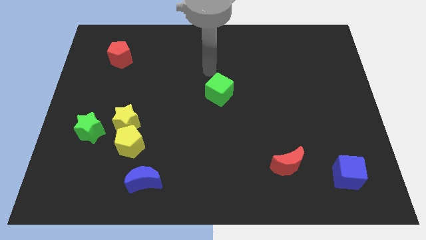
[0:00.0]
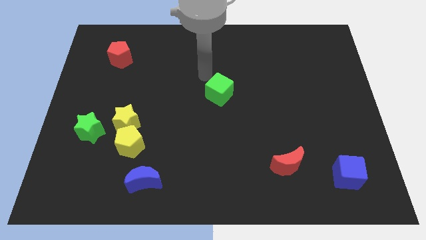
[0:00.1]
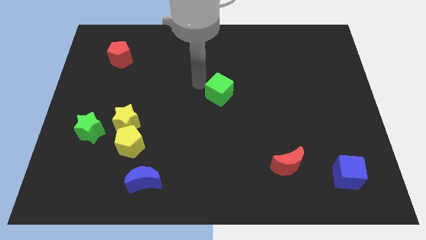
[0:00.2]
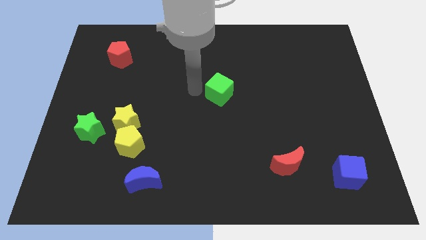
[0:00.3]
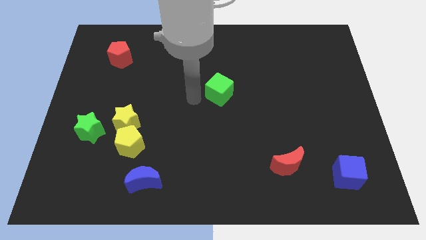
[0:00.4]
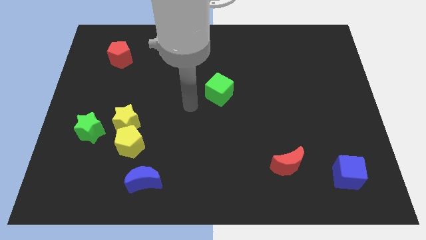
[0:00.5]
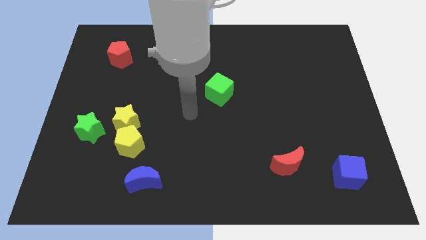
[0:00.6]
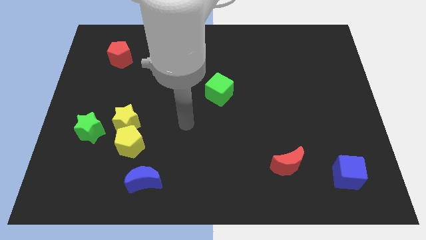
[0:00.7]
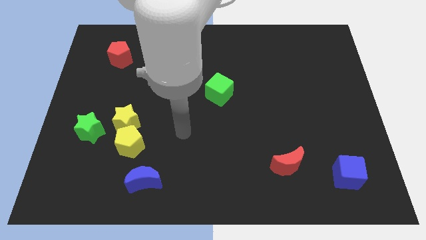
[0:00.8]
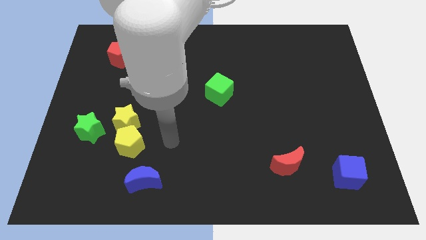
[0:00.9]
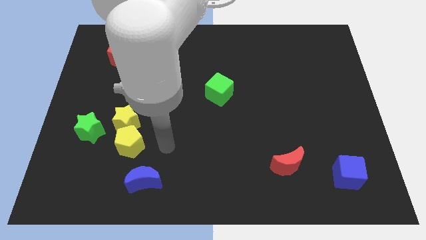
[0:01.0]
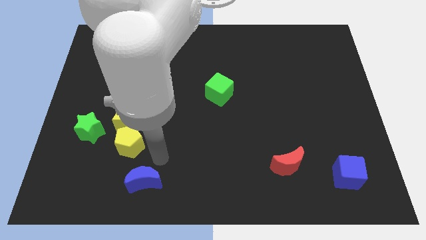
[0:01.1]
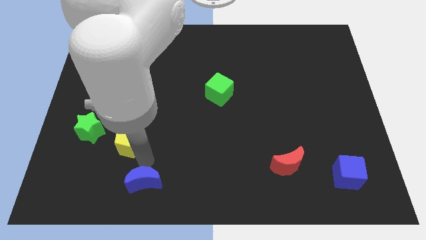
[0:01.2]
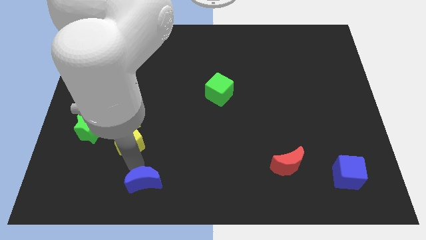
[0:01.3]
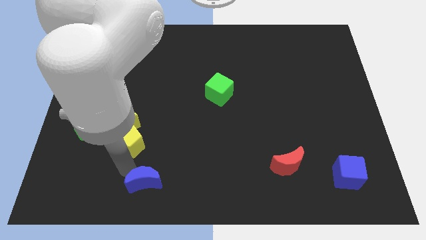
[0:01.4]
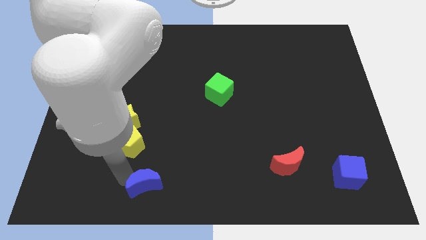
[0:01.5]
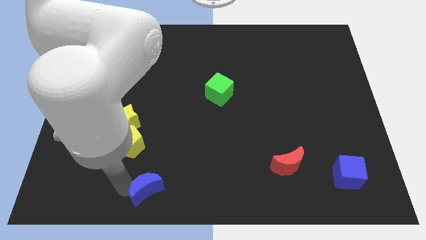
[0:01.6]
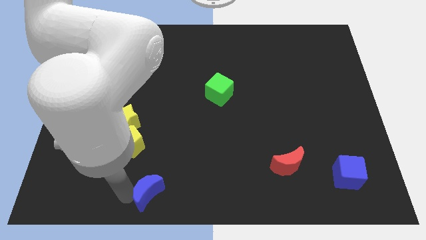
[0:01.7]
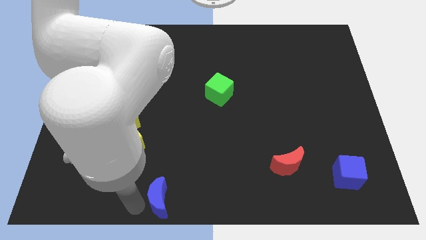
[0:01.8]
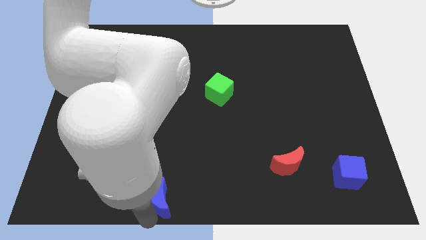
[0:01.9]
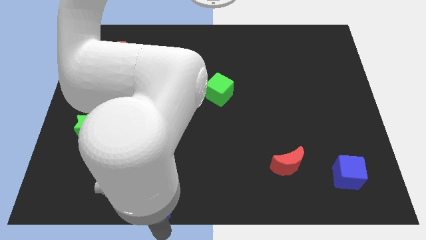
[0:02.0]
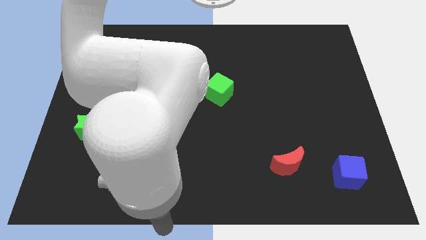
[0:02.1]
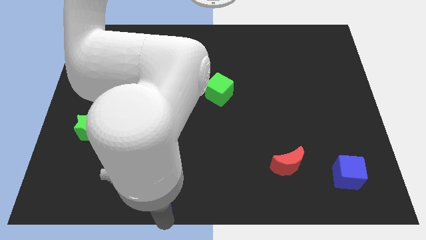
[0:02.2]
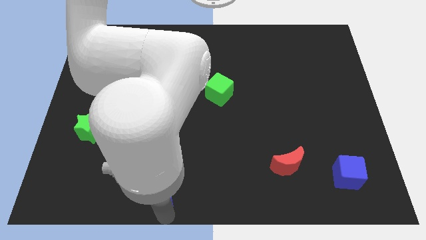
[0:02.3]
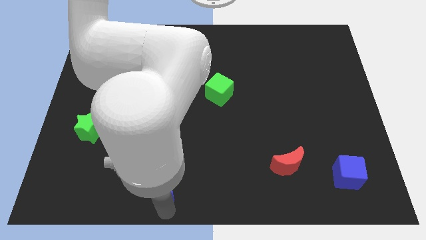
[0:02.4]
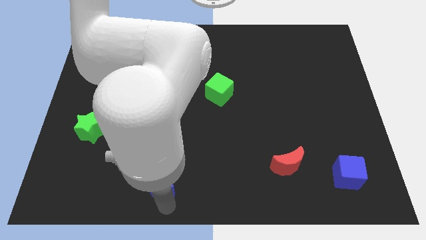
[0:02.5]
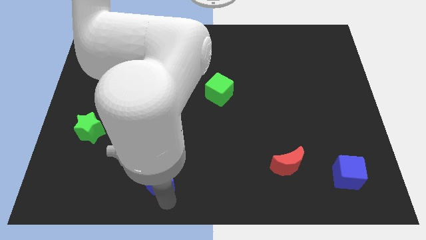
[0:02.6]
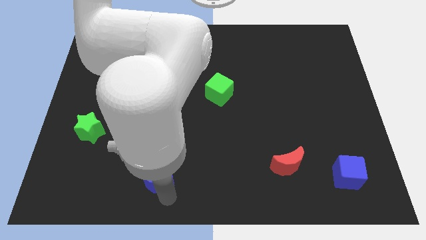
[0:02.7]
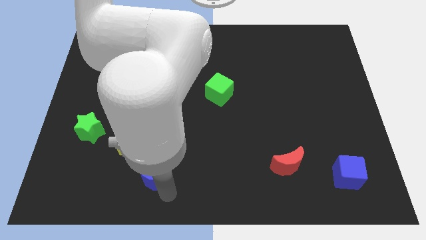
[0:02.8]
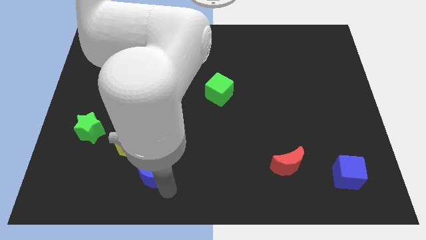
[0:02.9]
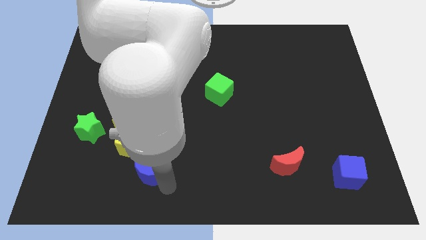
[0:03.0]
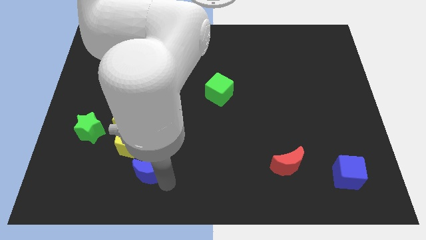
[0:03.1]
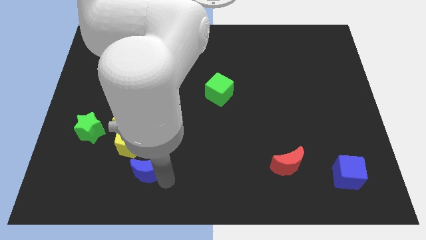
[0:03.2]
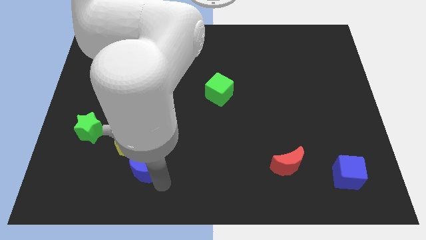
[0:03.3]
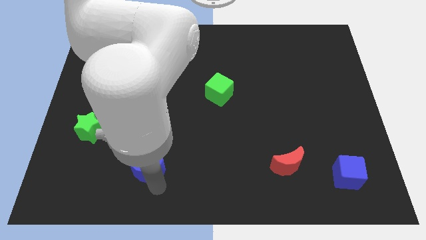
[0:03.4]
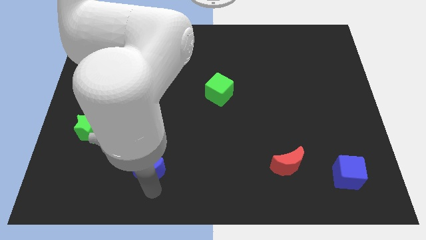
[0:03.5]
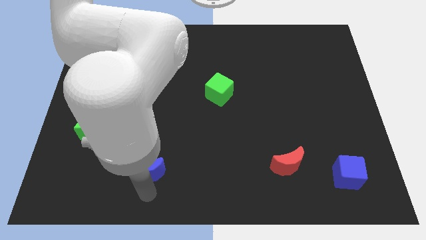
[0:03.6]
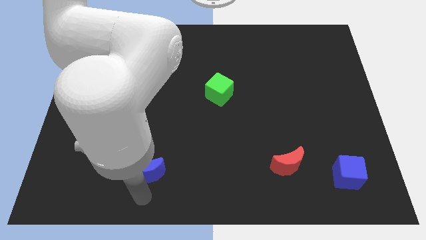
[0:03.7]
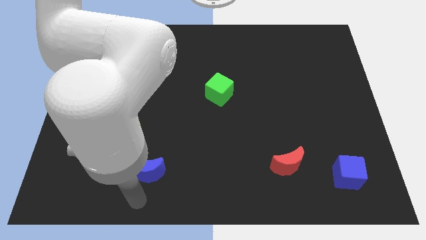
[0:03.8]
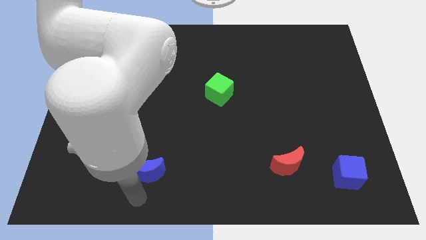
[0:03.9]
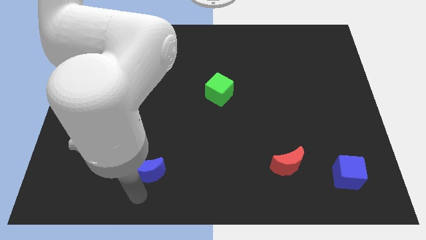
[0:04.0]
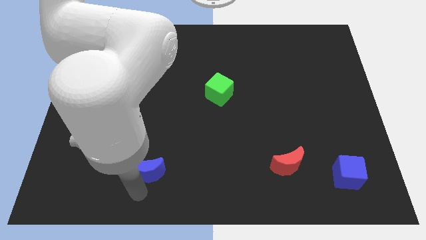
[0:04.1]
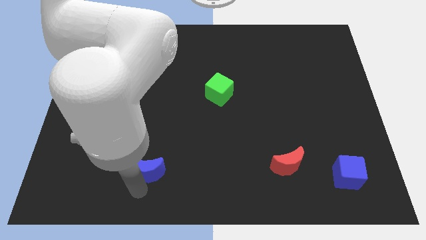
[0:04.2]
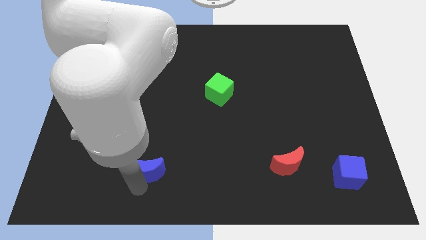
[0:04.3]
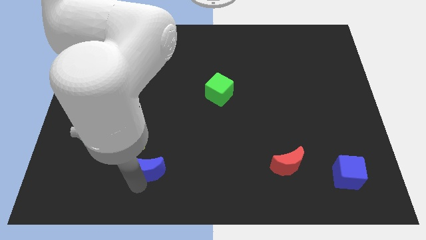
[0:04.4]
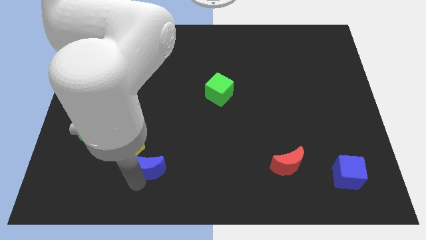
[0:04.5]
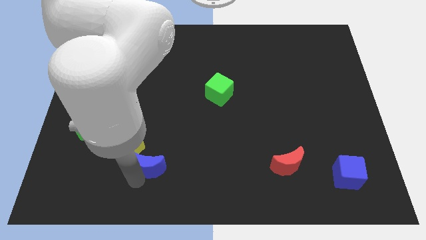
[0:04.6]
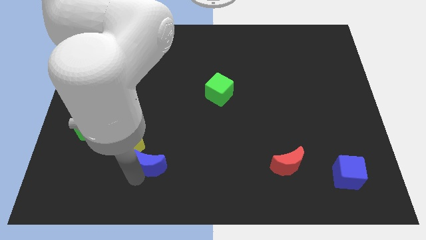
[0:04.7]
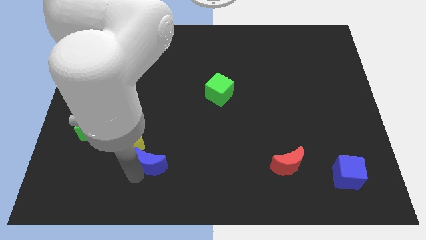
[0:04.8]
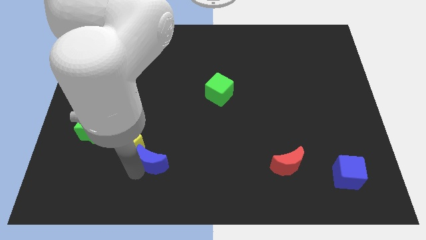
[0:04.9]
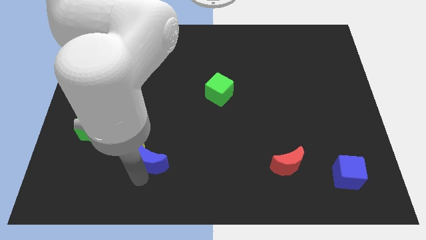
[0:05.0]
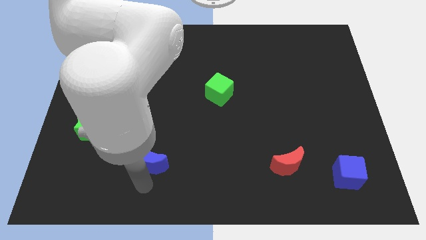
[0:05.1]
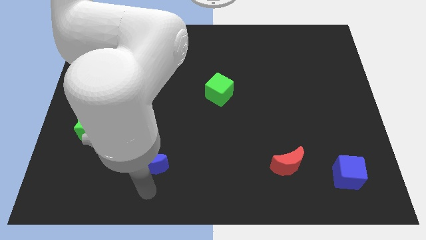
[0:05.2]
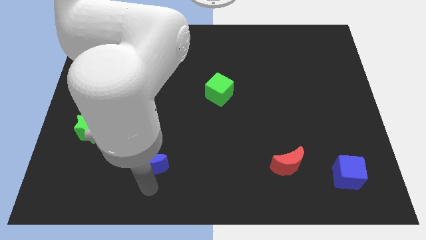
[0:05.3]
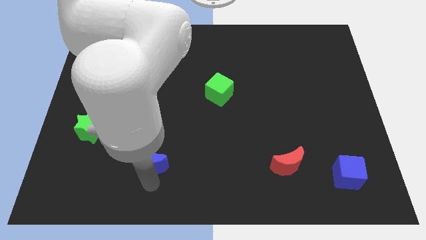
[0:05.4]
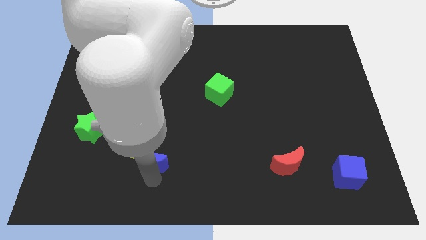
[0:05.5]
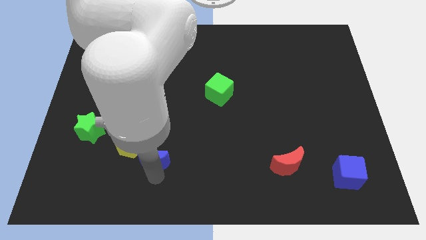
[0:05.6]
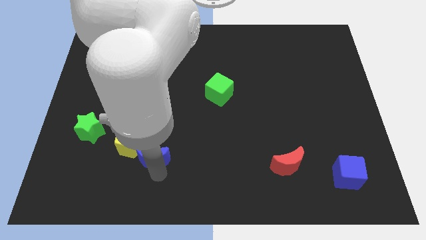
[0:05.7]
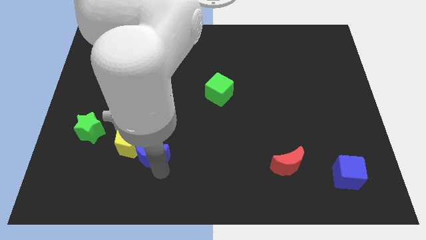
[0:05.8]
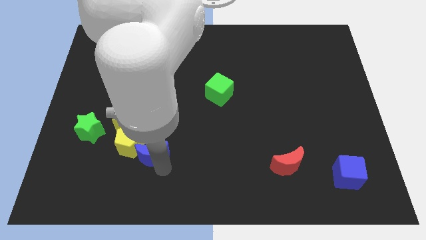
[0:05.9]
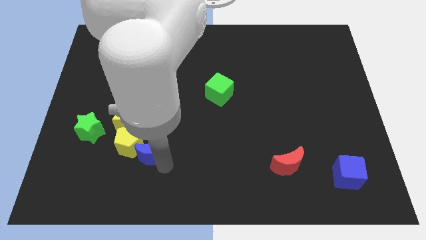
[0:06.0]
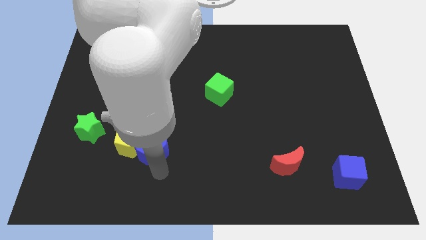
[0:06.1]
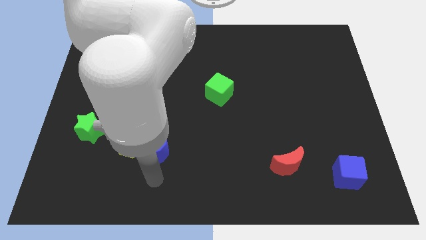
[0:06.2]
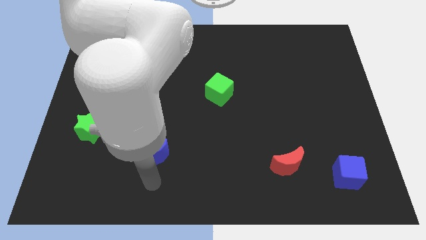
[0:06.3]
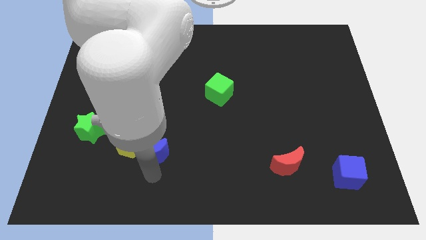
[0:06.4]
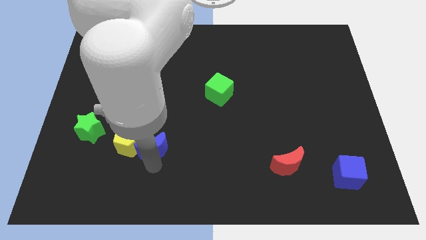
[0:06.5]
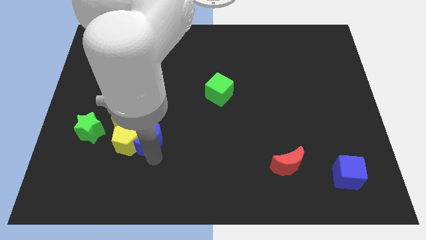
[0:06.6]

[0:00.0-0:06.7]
slide the blue moon diagonally up and to the right of the yellow pentagon

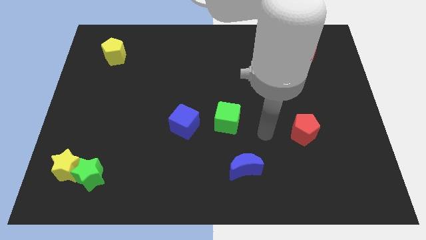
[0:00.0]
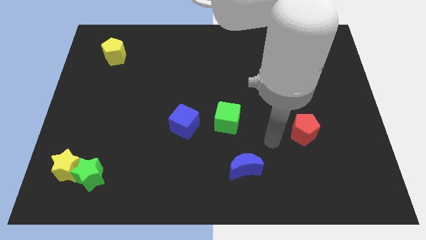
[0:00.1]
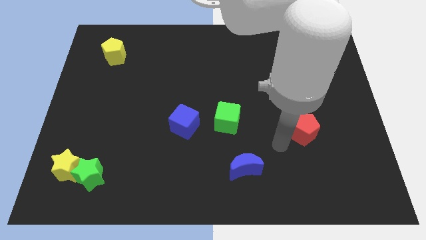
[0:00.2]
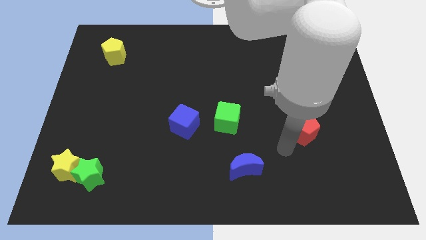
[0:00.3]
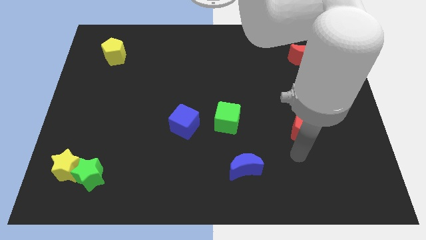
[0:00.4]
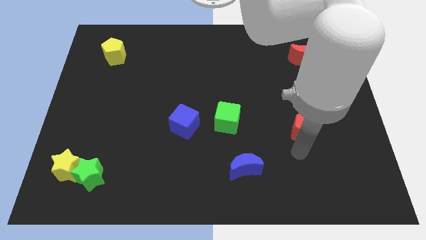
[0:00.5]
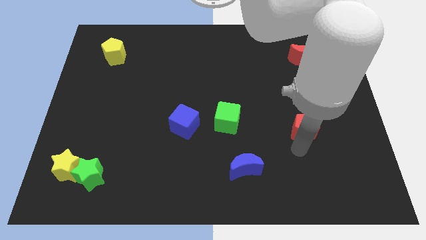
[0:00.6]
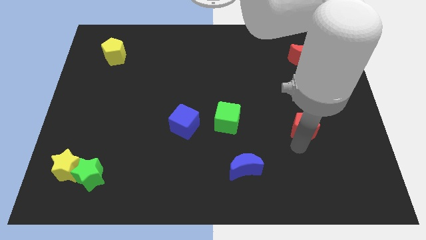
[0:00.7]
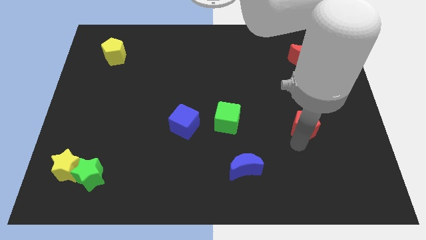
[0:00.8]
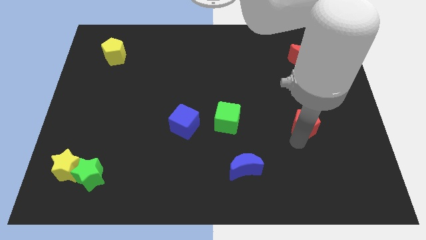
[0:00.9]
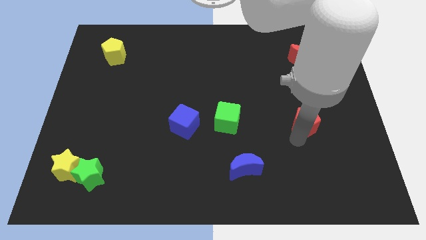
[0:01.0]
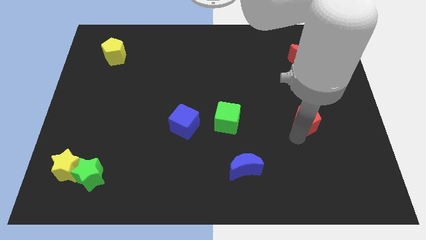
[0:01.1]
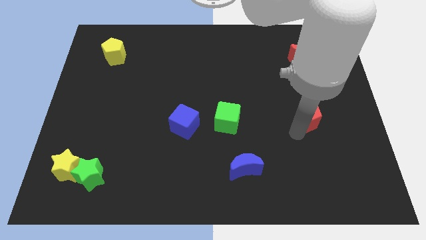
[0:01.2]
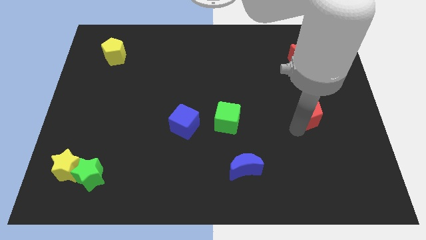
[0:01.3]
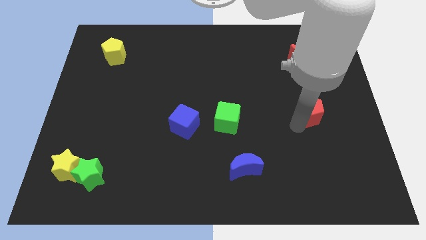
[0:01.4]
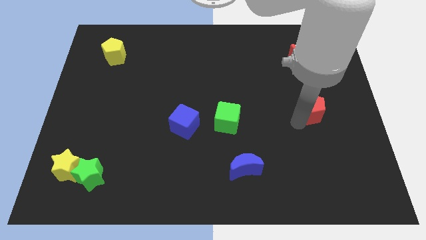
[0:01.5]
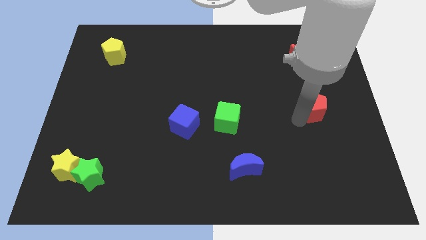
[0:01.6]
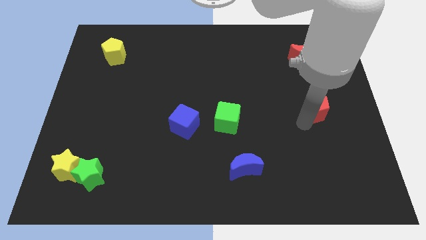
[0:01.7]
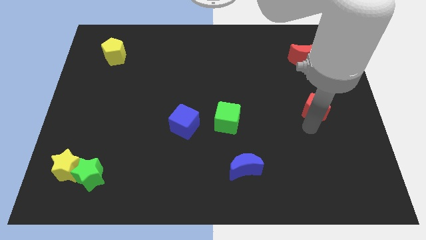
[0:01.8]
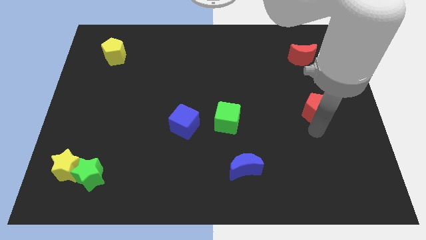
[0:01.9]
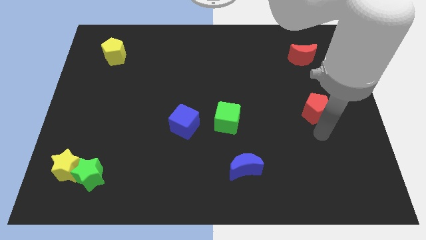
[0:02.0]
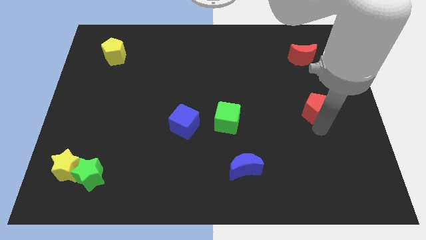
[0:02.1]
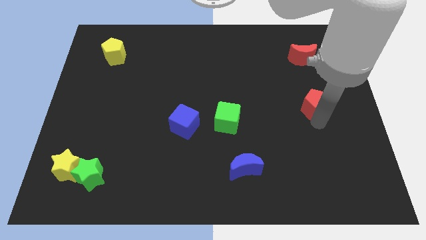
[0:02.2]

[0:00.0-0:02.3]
push the red pentagon below the red moon
